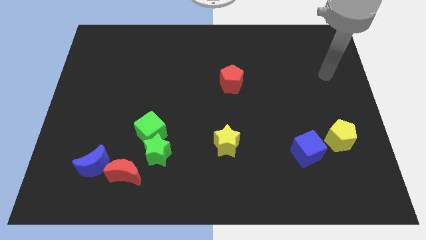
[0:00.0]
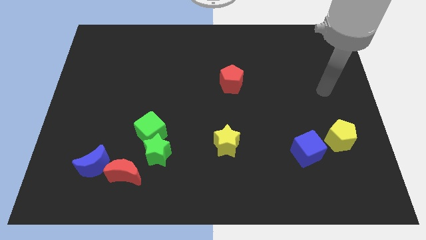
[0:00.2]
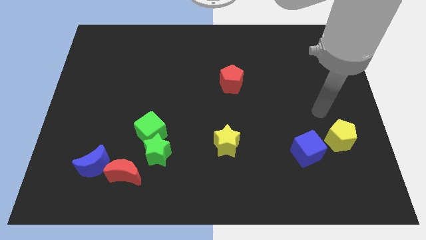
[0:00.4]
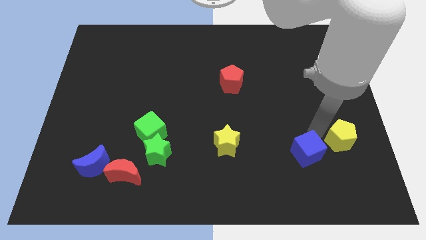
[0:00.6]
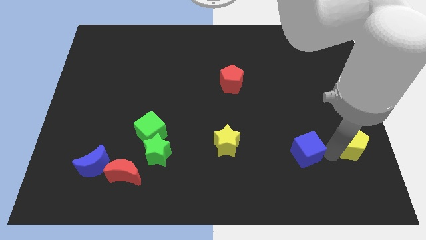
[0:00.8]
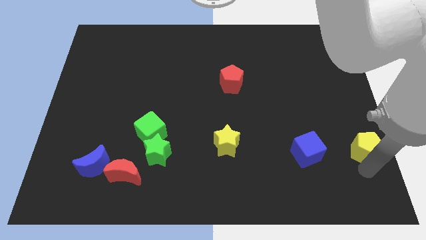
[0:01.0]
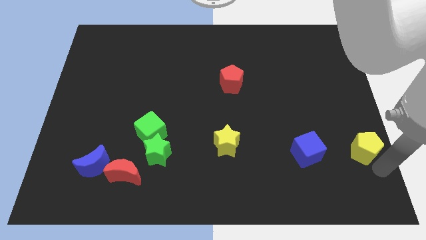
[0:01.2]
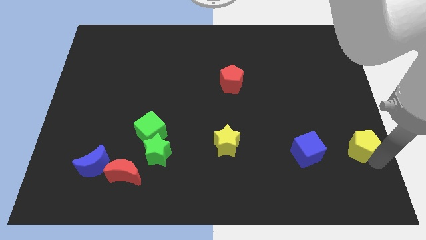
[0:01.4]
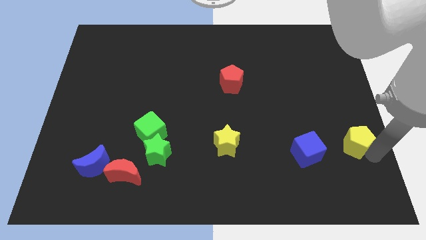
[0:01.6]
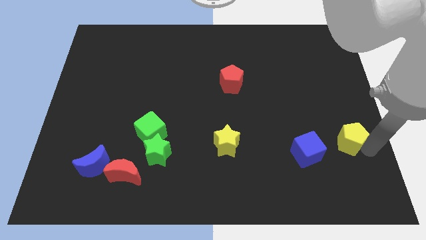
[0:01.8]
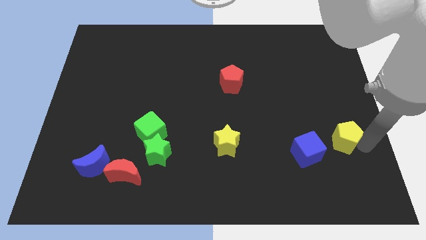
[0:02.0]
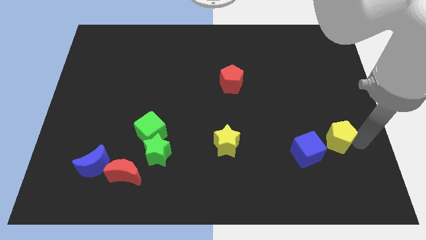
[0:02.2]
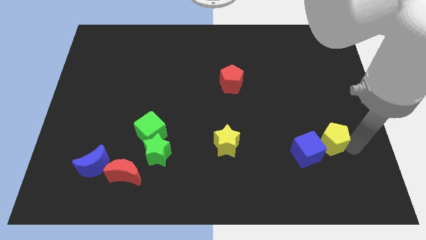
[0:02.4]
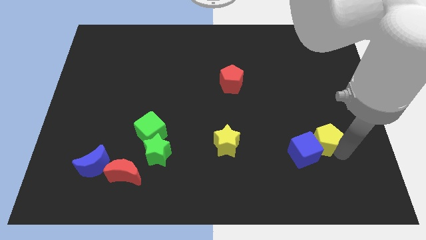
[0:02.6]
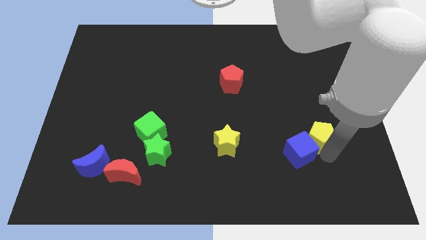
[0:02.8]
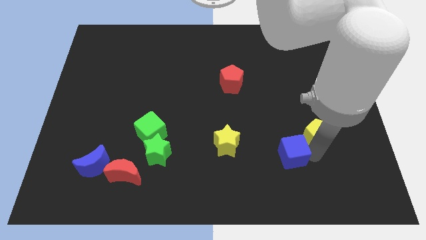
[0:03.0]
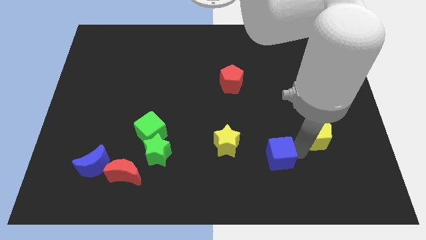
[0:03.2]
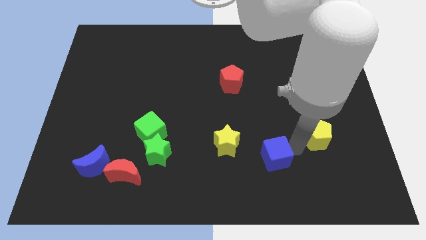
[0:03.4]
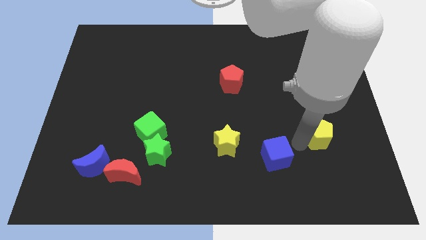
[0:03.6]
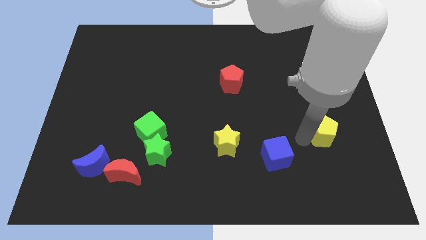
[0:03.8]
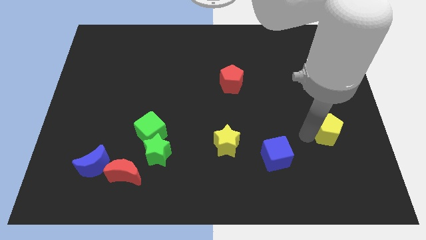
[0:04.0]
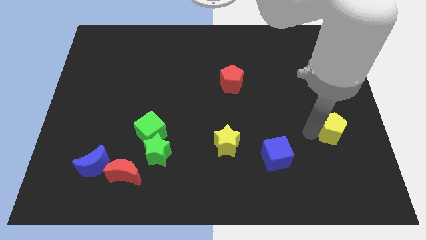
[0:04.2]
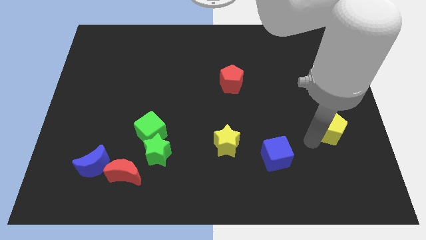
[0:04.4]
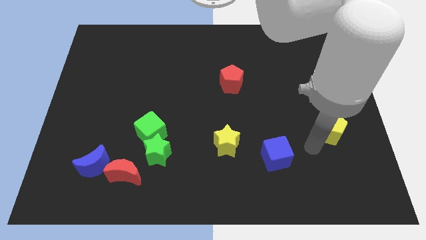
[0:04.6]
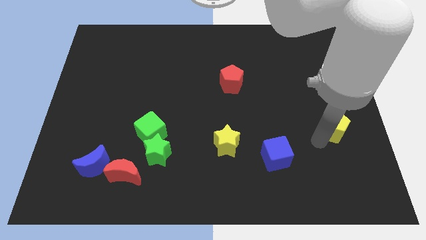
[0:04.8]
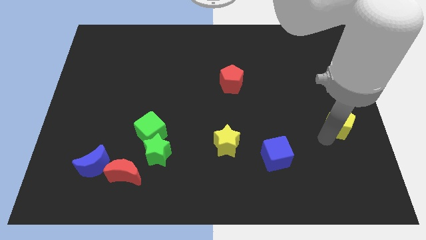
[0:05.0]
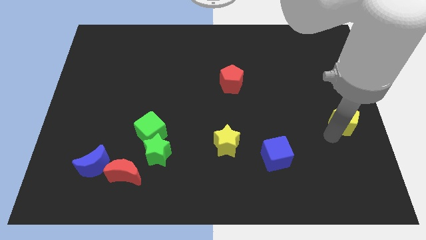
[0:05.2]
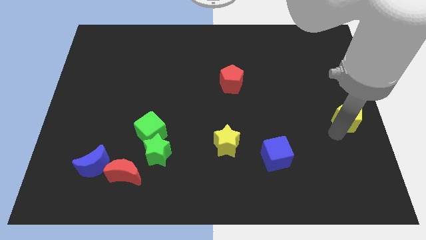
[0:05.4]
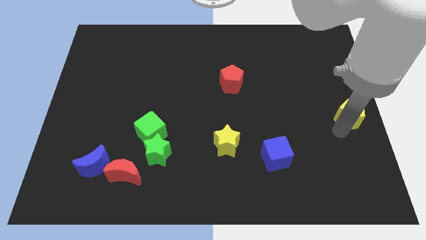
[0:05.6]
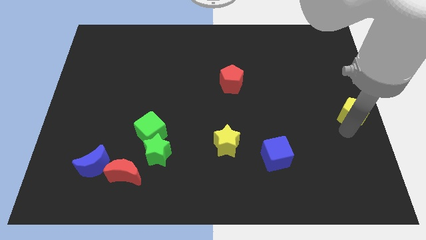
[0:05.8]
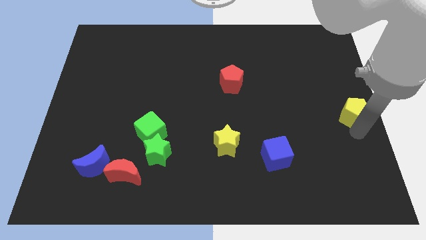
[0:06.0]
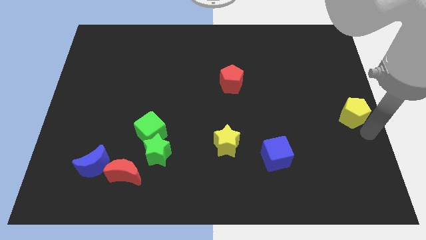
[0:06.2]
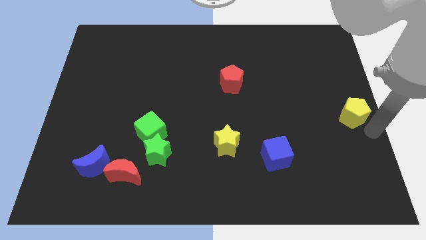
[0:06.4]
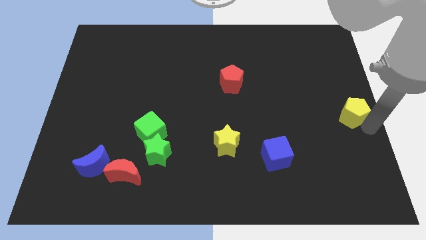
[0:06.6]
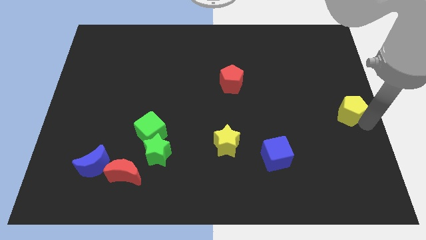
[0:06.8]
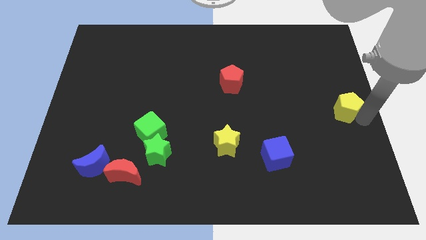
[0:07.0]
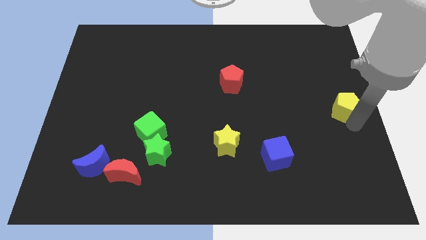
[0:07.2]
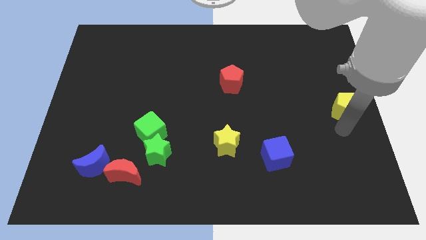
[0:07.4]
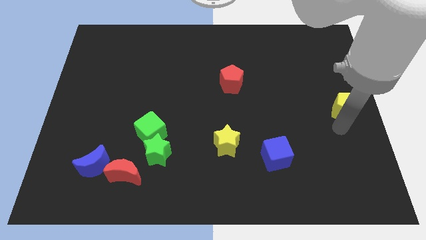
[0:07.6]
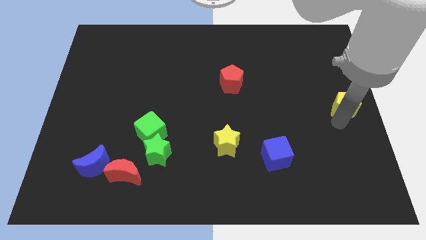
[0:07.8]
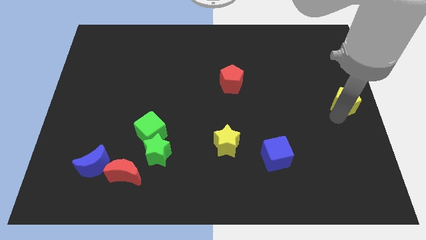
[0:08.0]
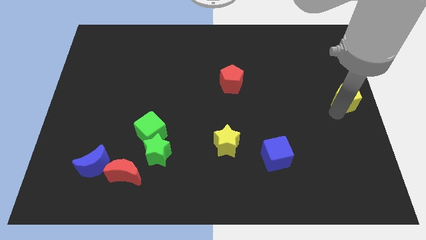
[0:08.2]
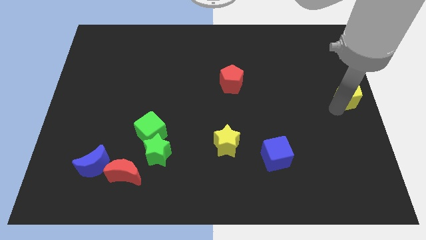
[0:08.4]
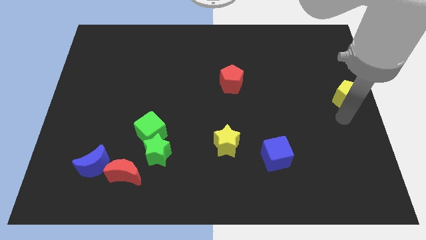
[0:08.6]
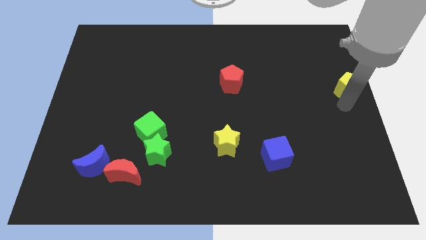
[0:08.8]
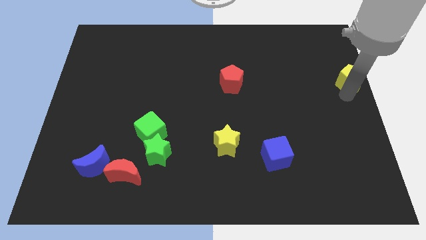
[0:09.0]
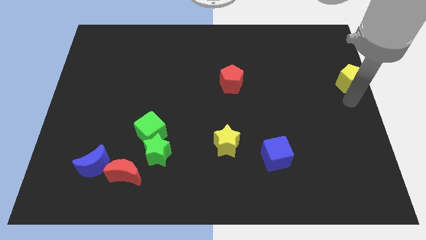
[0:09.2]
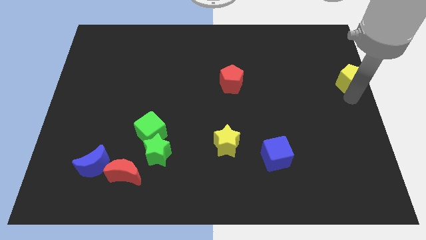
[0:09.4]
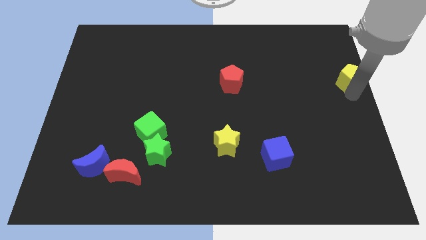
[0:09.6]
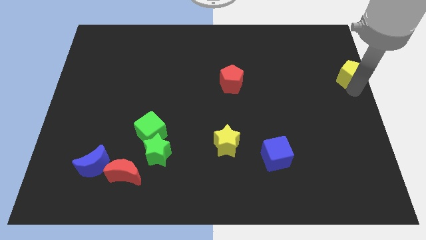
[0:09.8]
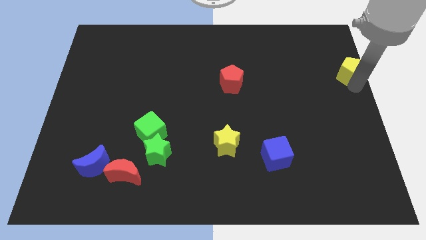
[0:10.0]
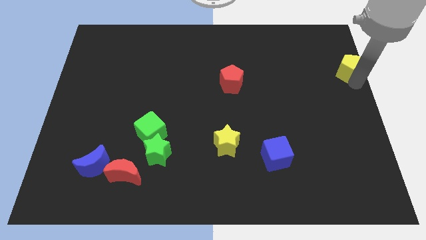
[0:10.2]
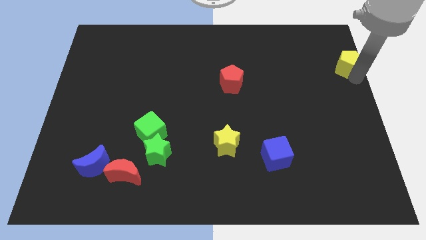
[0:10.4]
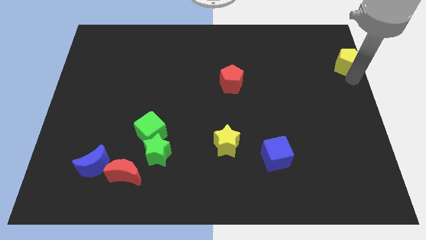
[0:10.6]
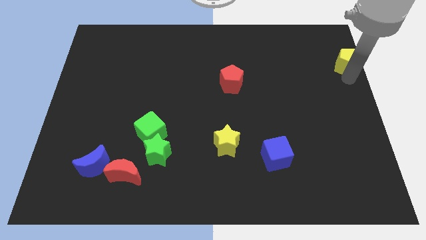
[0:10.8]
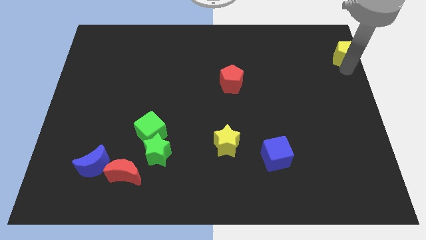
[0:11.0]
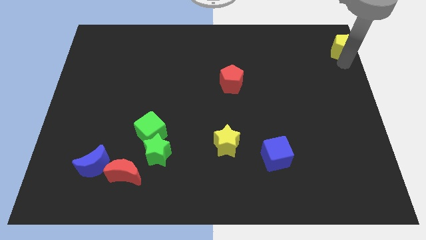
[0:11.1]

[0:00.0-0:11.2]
move the yellow pentagon to the top right corner

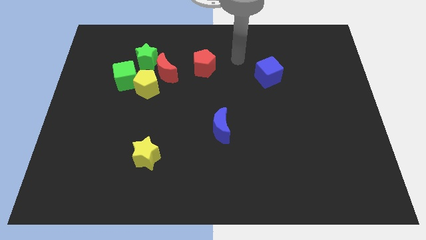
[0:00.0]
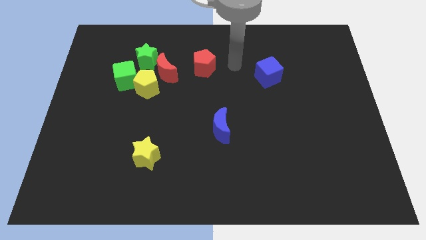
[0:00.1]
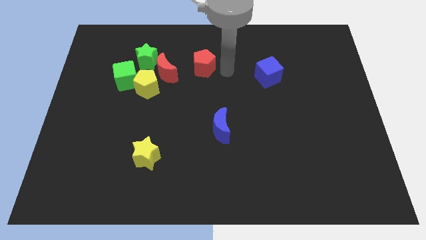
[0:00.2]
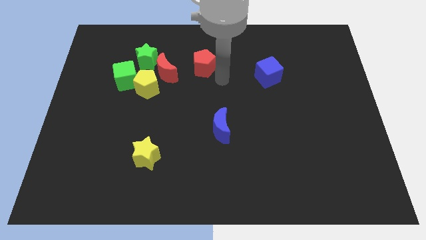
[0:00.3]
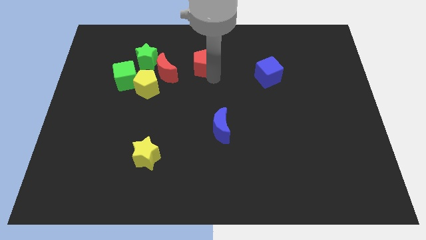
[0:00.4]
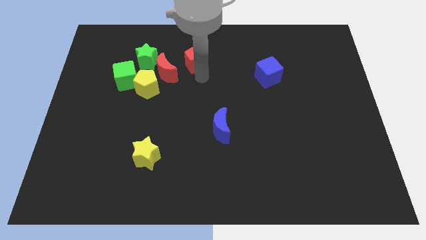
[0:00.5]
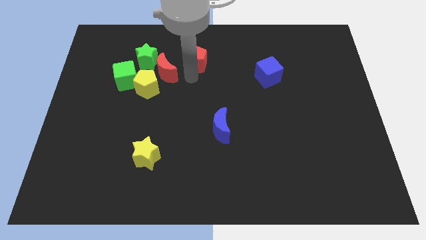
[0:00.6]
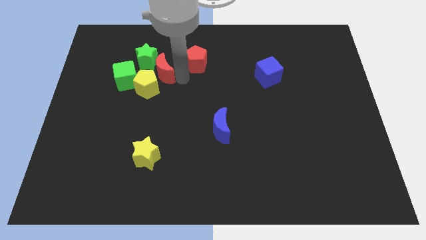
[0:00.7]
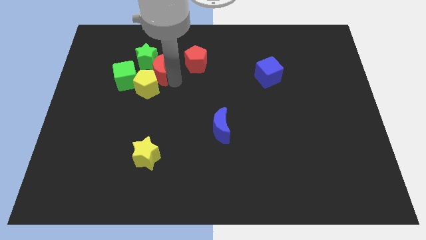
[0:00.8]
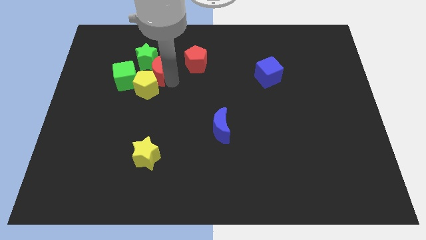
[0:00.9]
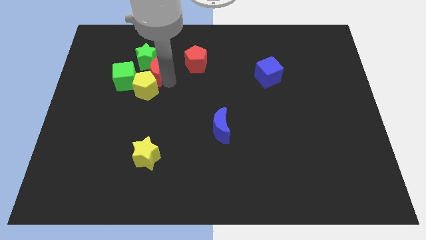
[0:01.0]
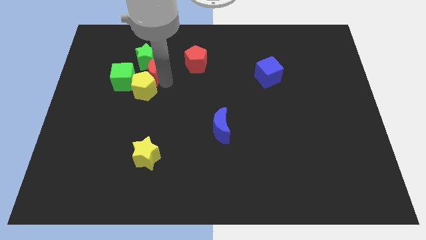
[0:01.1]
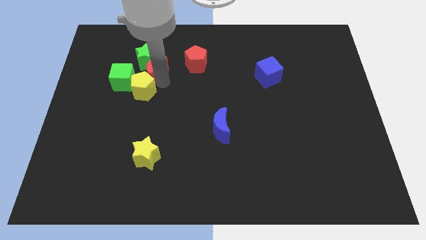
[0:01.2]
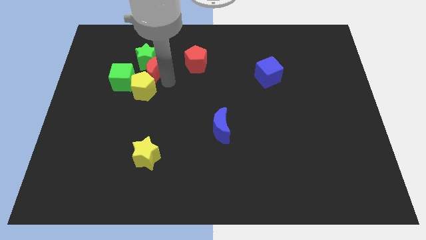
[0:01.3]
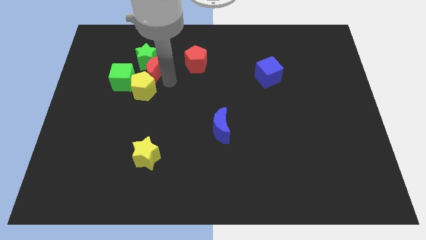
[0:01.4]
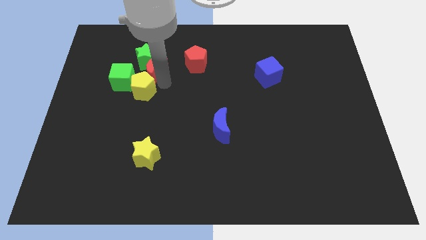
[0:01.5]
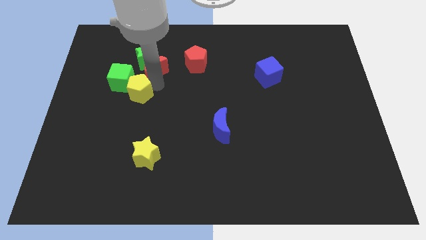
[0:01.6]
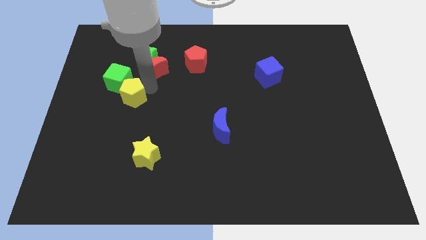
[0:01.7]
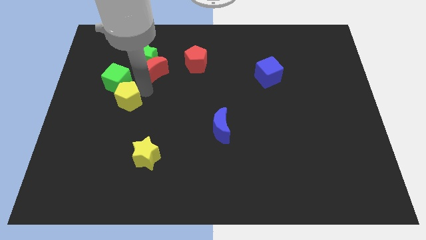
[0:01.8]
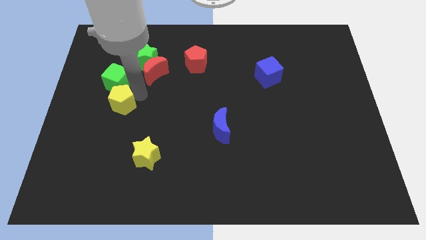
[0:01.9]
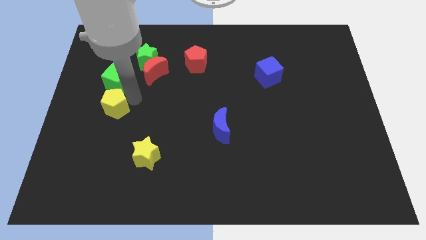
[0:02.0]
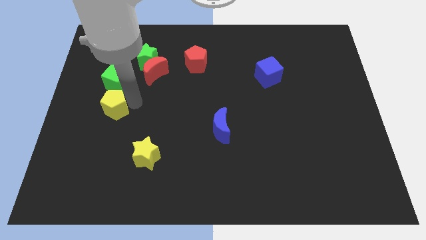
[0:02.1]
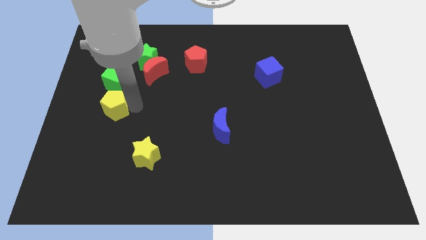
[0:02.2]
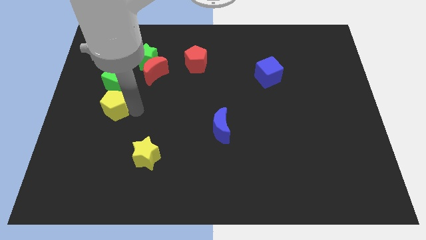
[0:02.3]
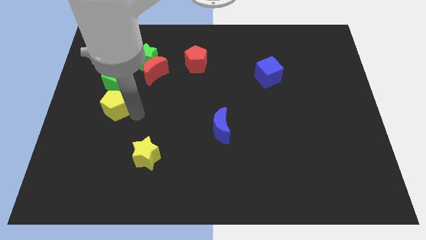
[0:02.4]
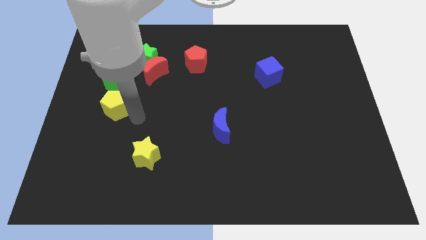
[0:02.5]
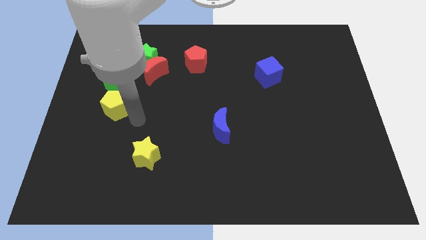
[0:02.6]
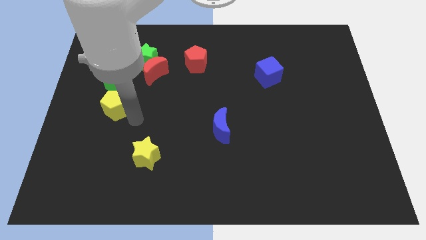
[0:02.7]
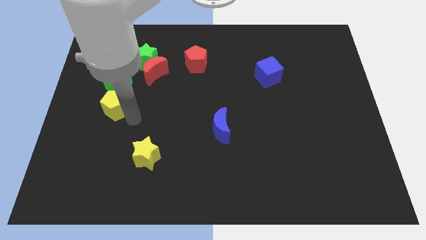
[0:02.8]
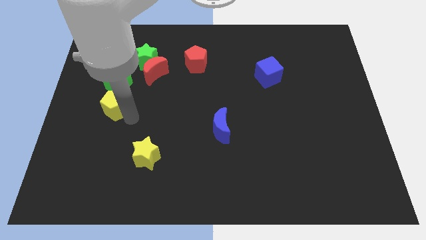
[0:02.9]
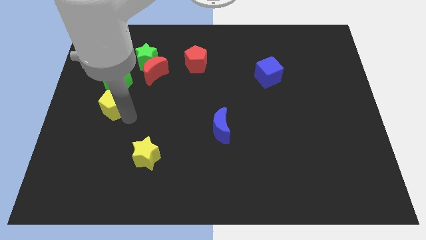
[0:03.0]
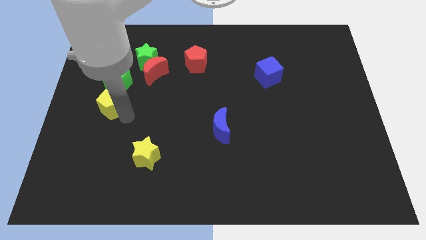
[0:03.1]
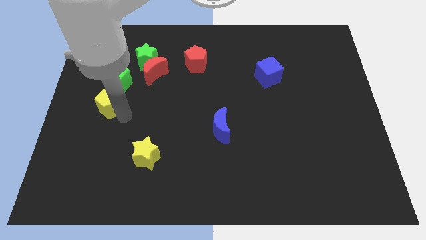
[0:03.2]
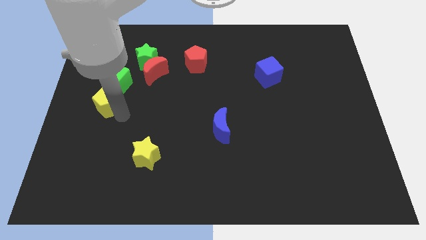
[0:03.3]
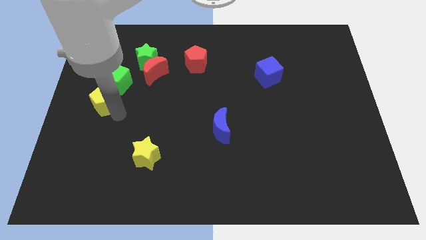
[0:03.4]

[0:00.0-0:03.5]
move the yellow pentagon to the left side of the board
